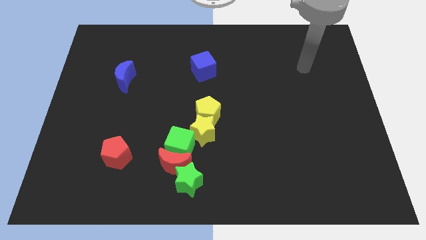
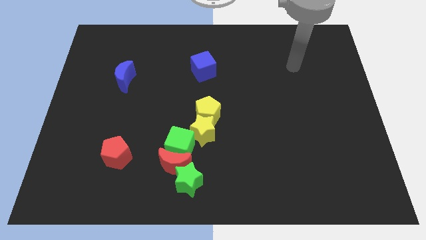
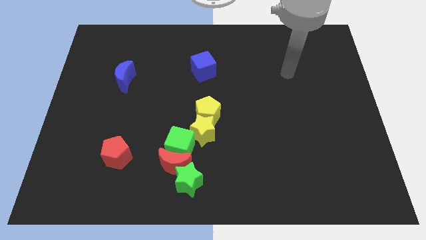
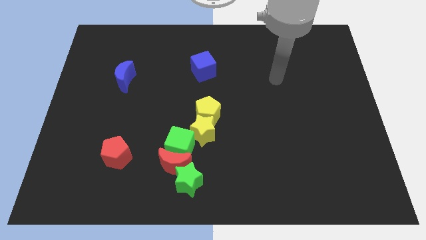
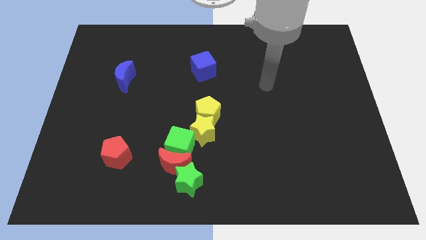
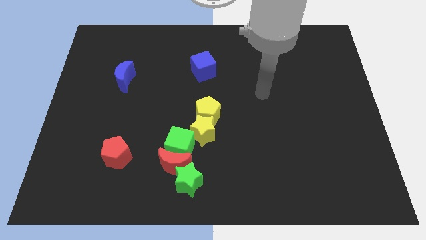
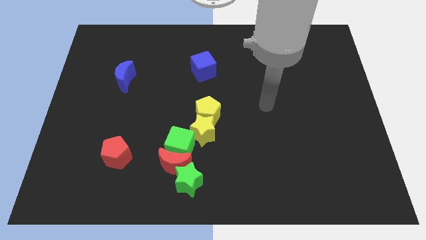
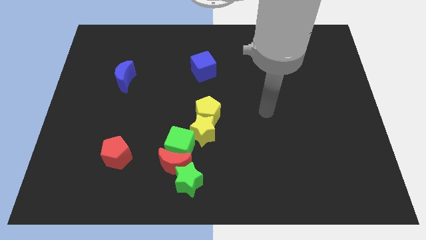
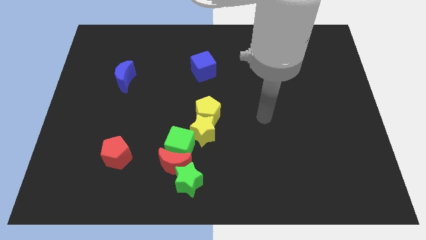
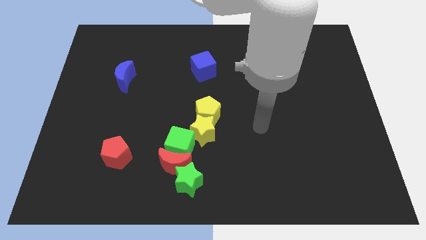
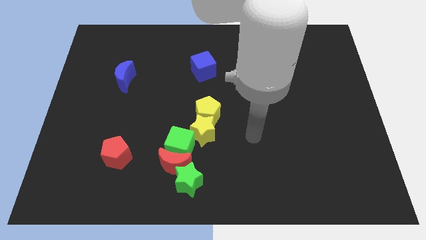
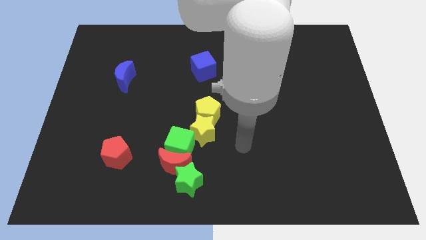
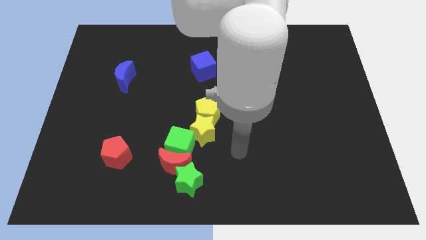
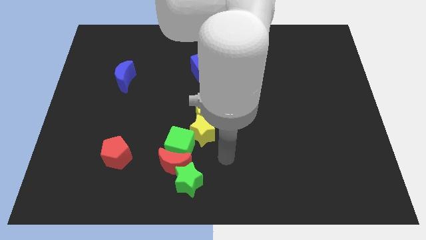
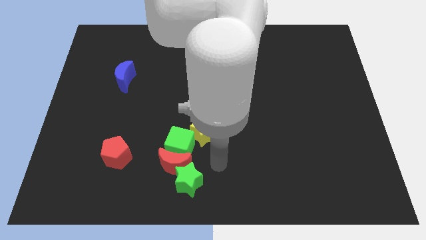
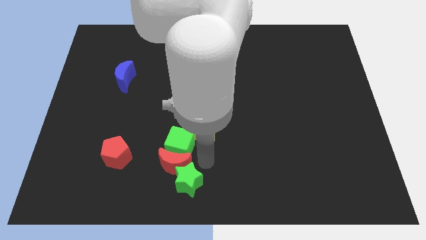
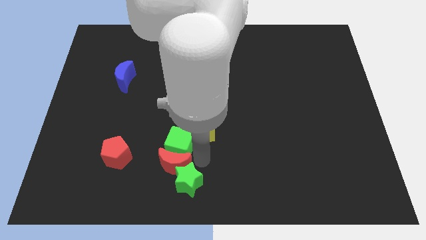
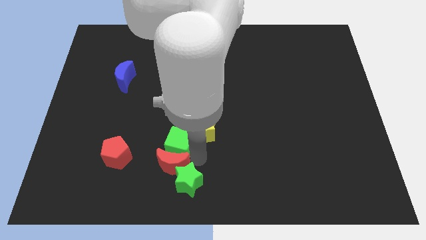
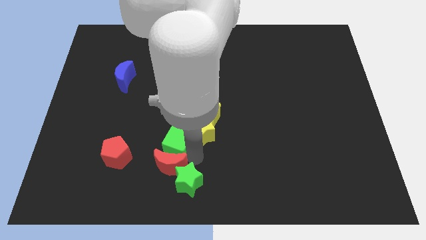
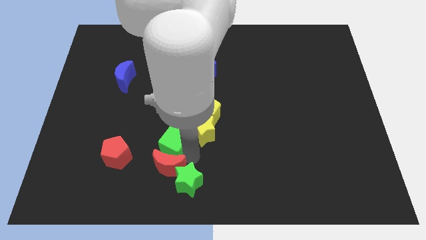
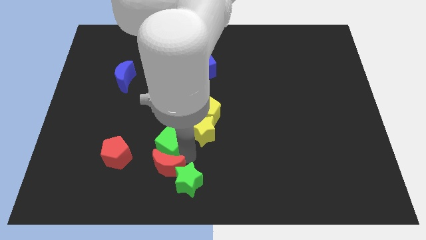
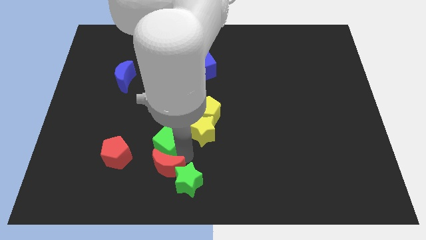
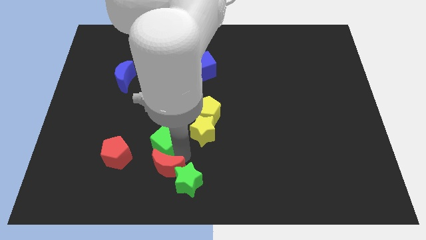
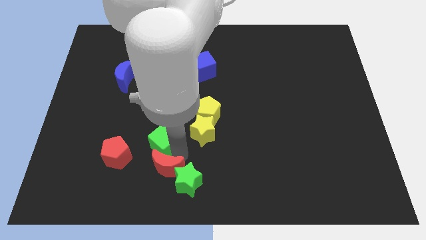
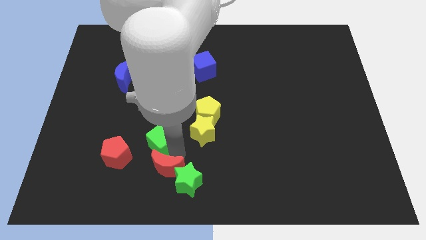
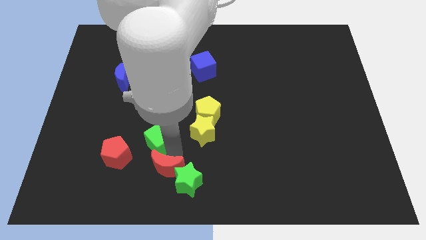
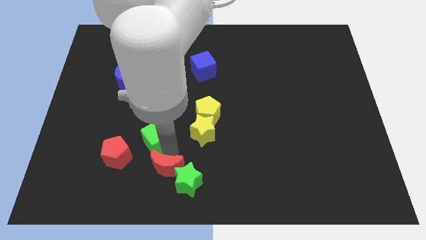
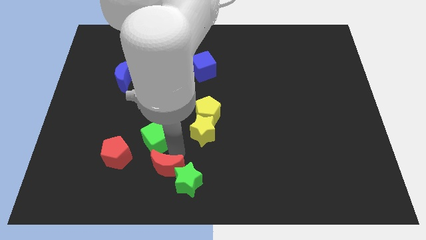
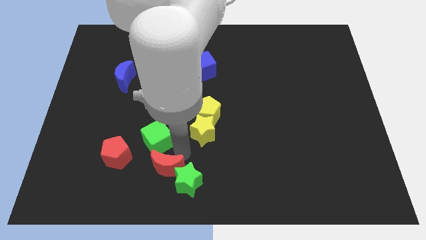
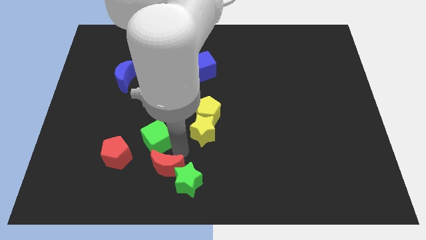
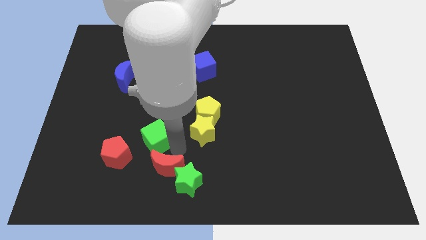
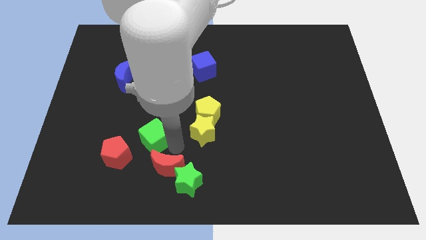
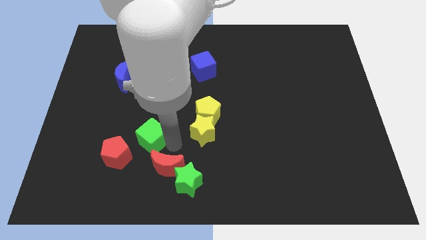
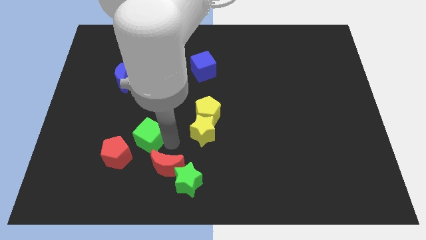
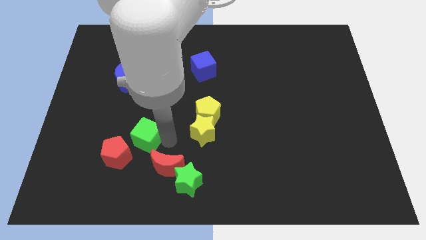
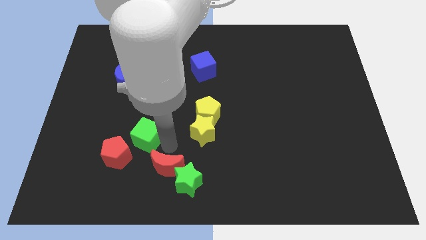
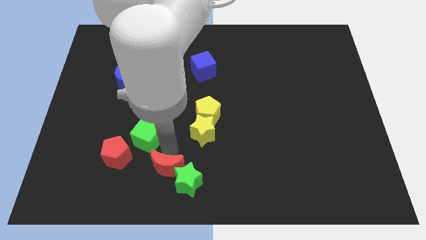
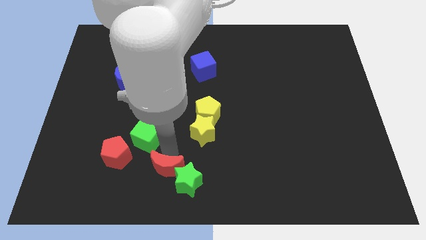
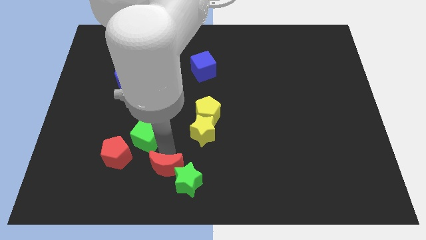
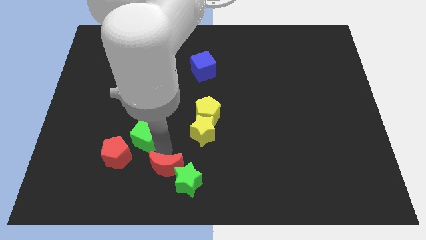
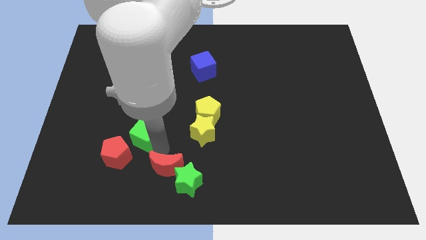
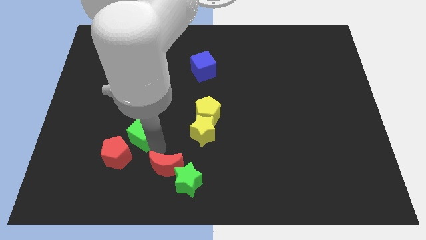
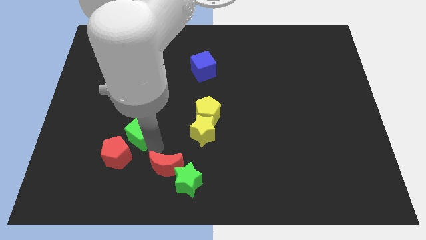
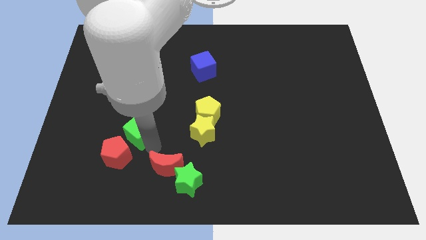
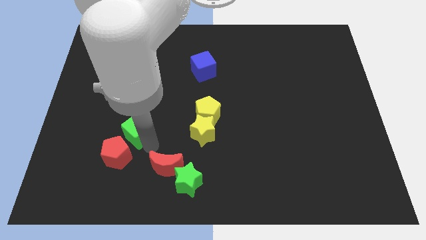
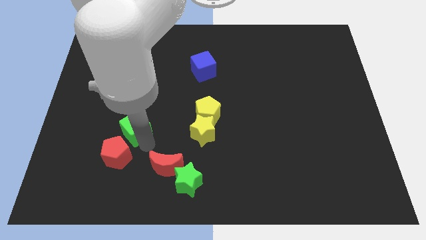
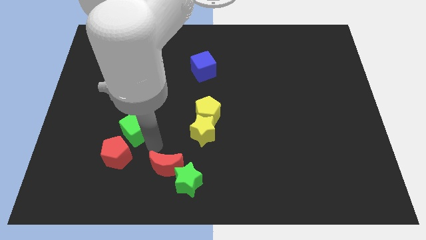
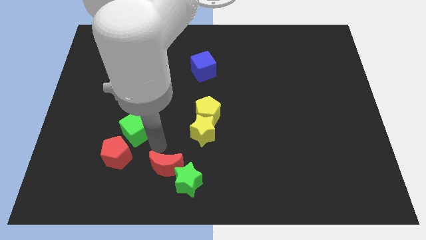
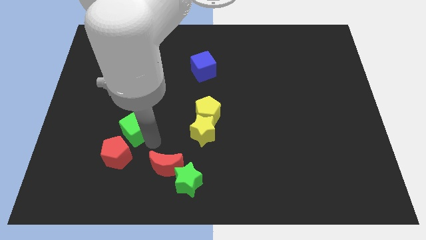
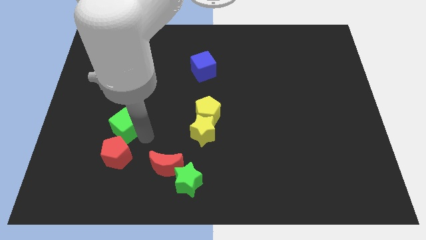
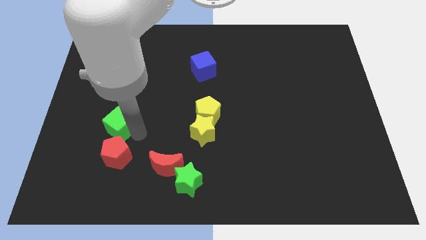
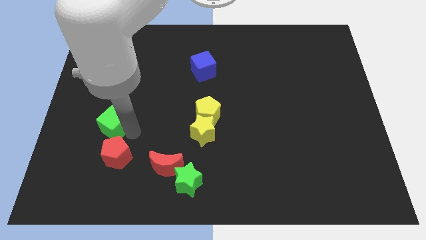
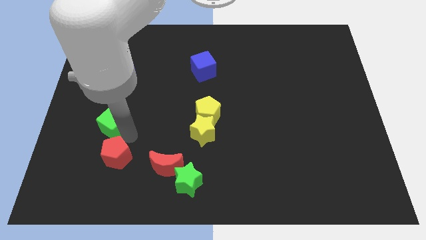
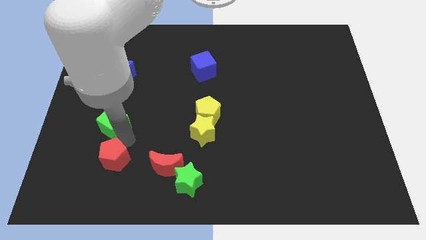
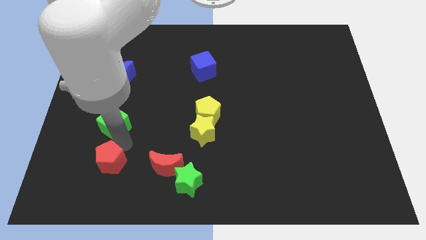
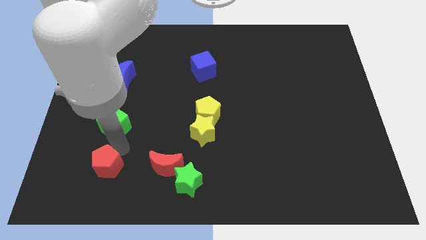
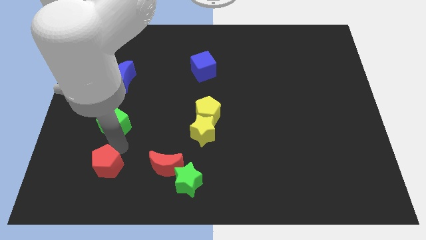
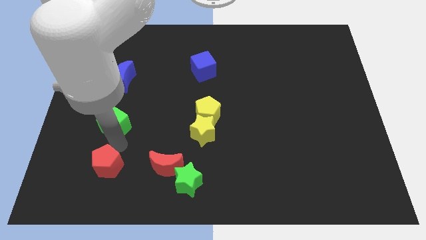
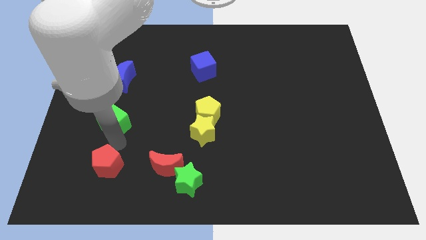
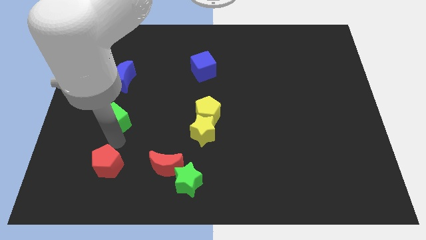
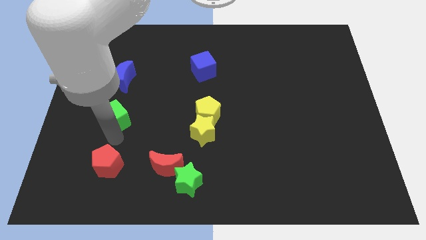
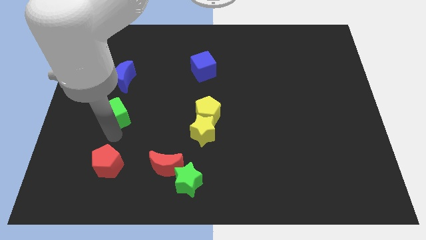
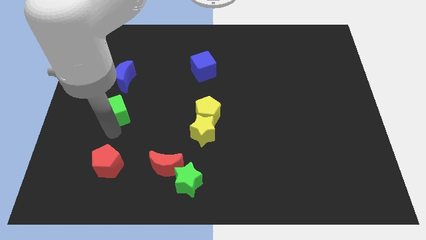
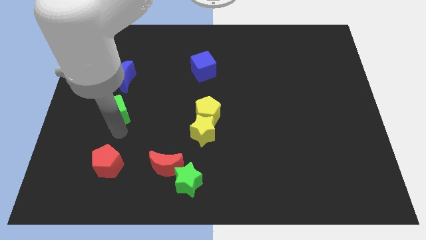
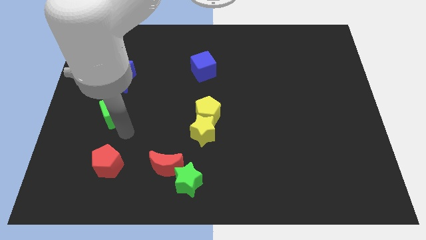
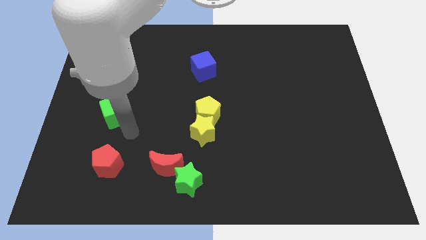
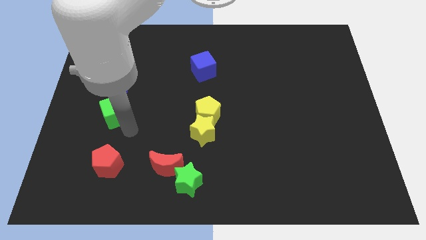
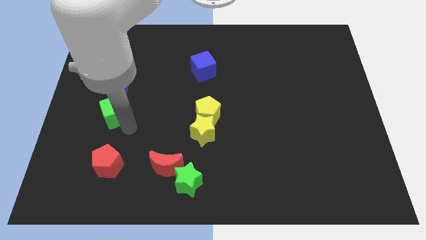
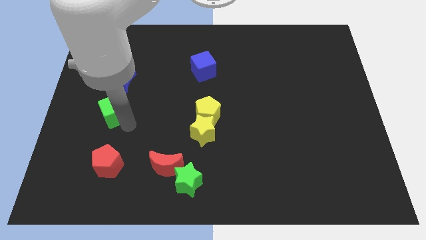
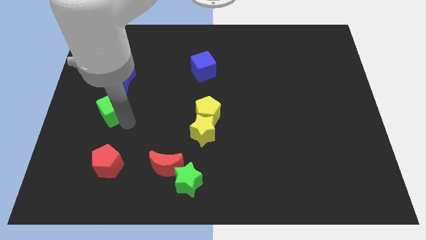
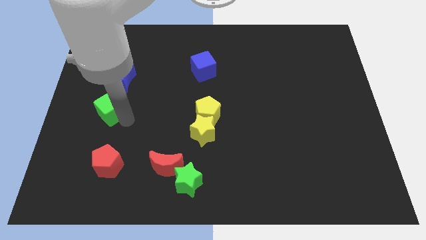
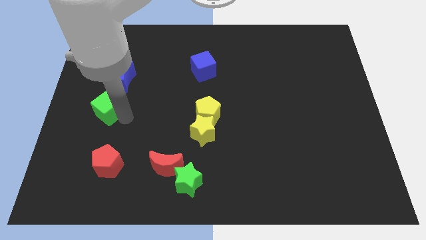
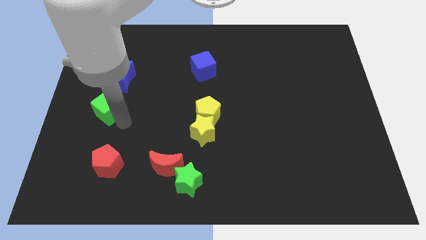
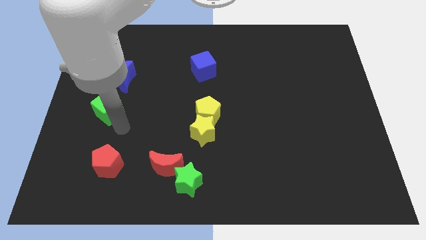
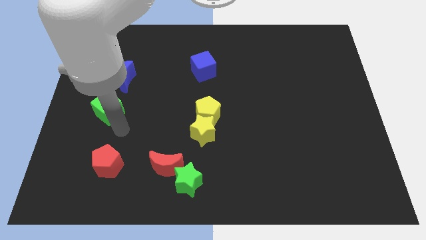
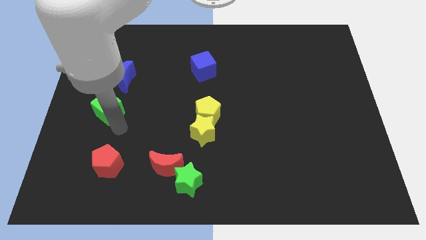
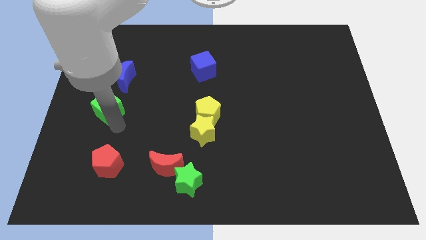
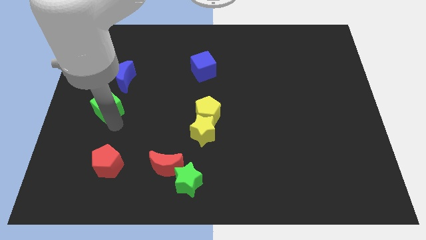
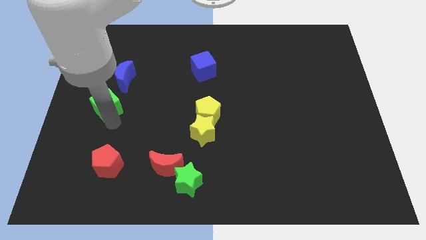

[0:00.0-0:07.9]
put the green cube diagonally down and to the left of the blue moon
